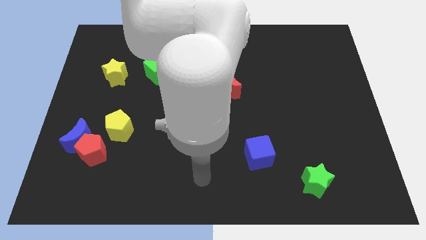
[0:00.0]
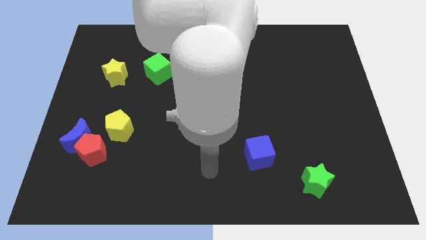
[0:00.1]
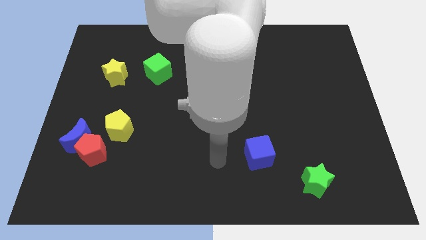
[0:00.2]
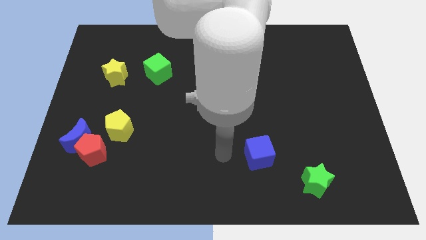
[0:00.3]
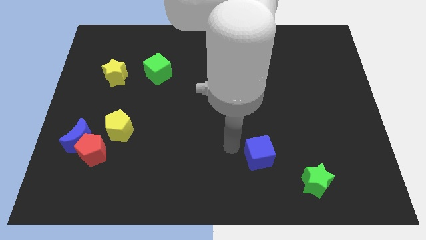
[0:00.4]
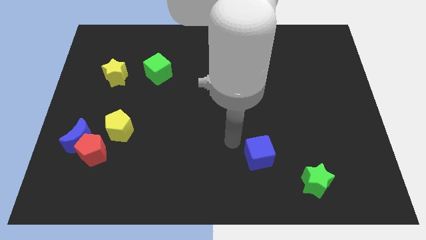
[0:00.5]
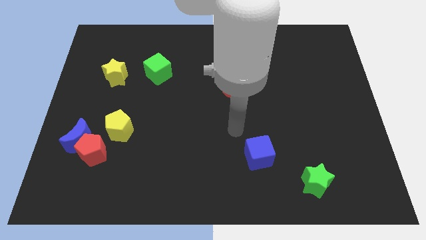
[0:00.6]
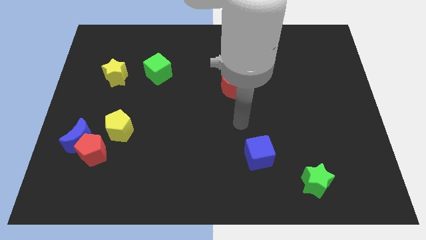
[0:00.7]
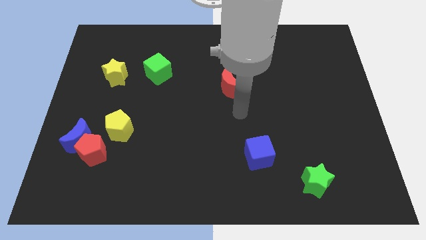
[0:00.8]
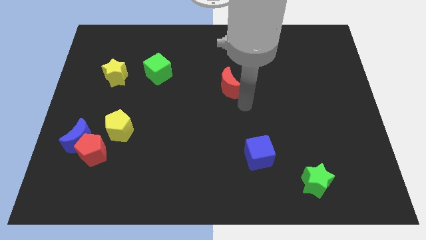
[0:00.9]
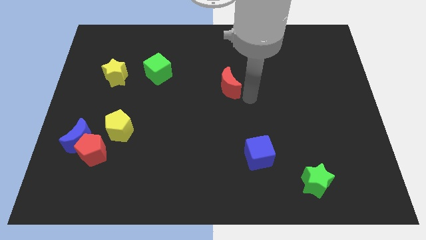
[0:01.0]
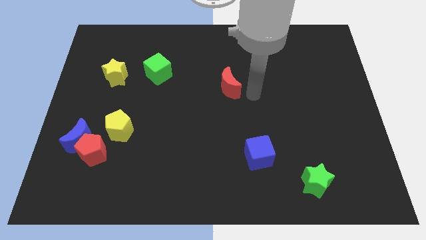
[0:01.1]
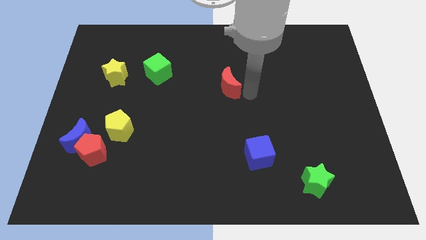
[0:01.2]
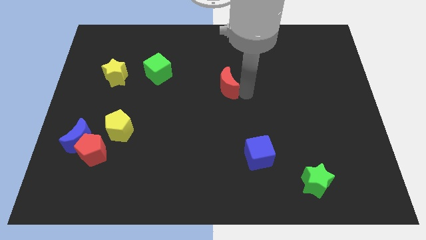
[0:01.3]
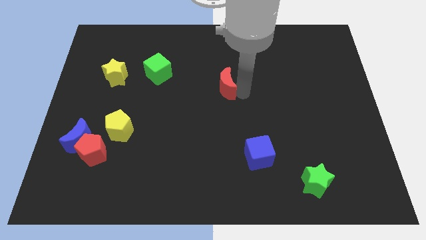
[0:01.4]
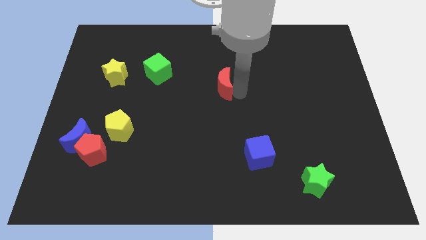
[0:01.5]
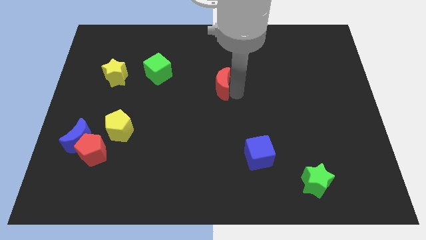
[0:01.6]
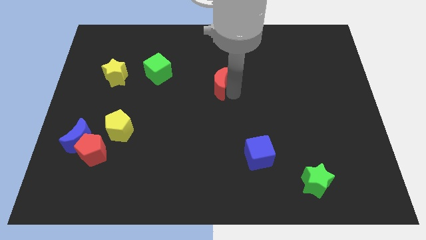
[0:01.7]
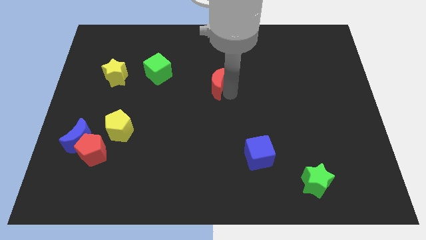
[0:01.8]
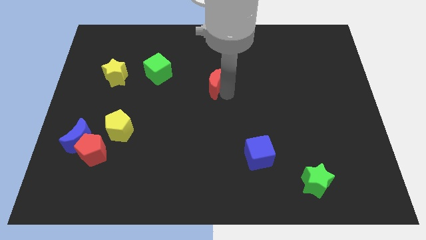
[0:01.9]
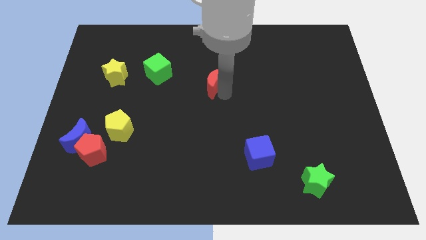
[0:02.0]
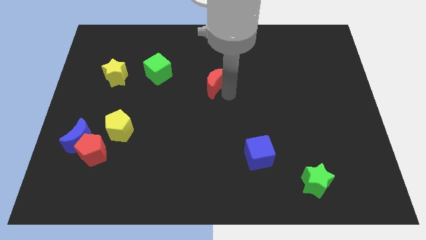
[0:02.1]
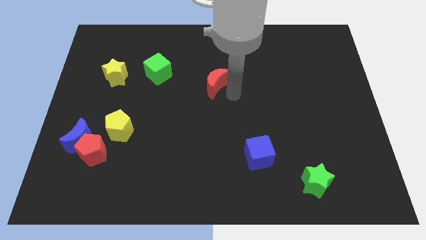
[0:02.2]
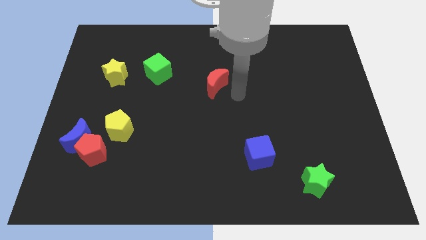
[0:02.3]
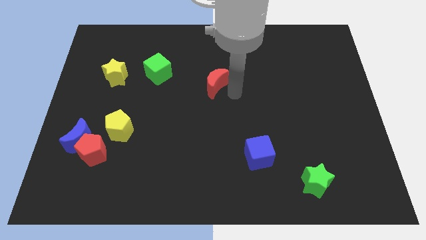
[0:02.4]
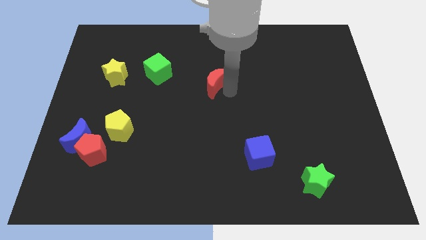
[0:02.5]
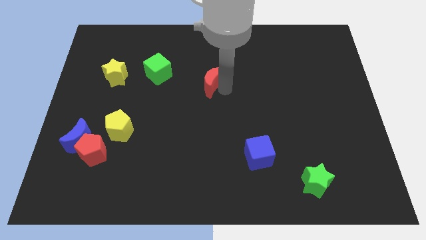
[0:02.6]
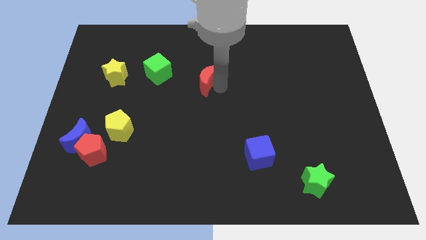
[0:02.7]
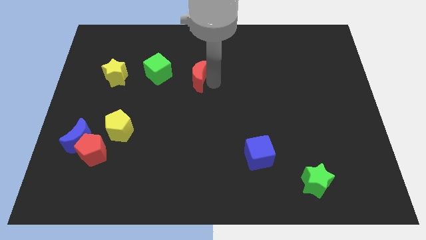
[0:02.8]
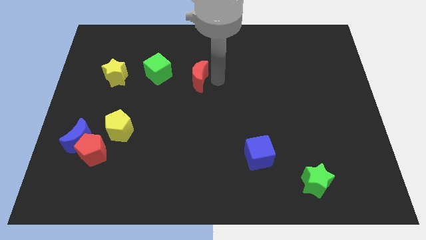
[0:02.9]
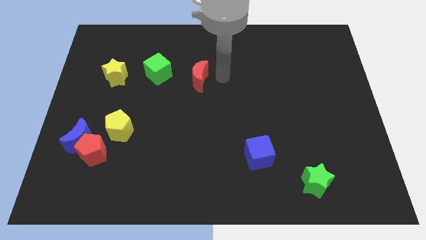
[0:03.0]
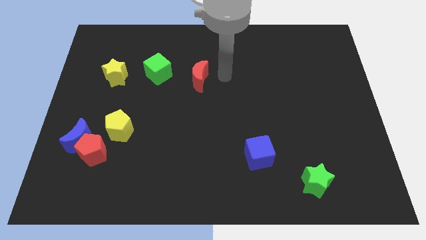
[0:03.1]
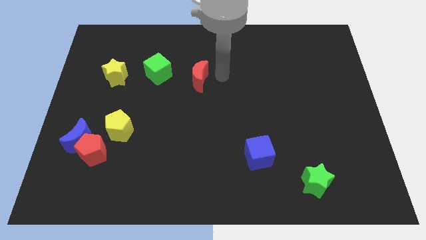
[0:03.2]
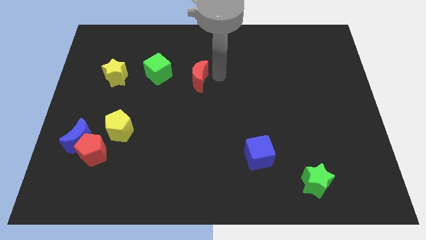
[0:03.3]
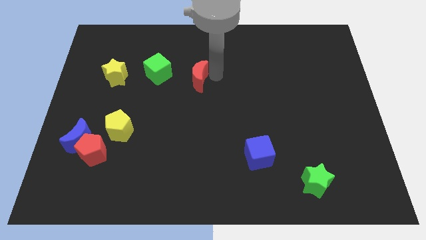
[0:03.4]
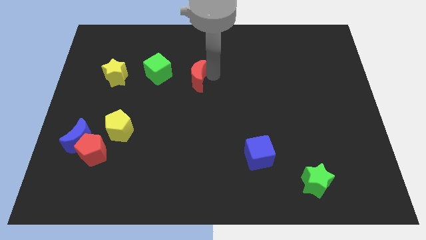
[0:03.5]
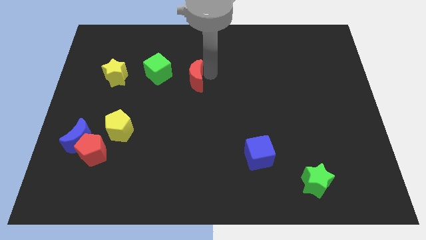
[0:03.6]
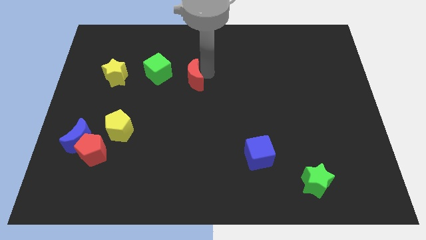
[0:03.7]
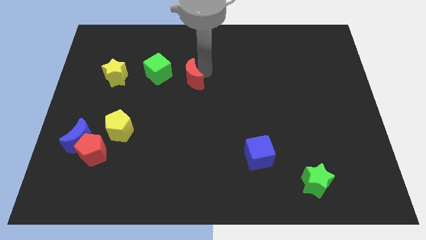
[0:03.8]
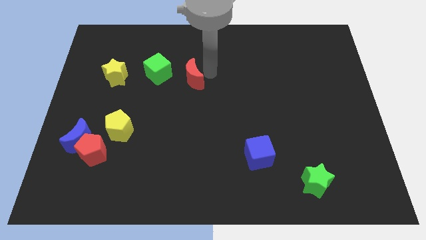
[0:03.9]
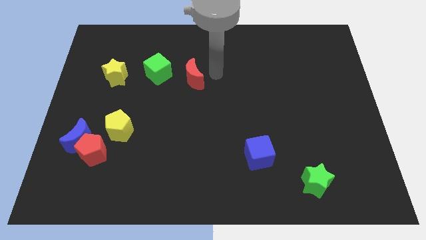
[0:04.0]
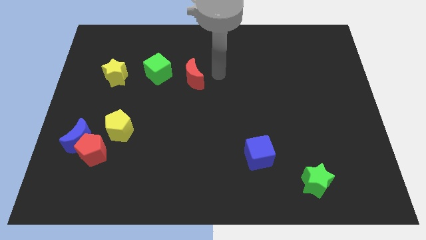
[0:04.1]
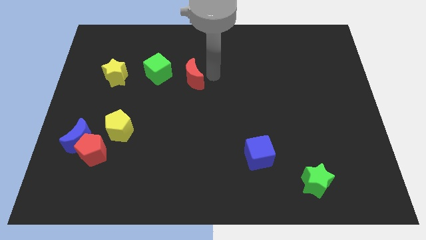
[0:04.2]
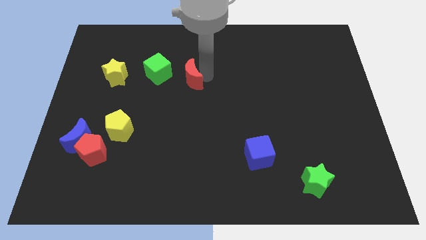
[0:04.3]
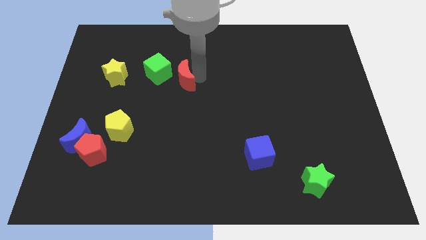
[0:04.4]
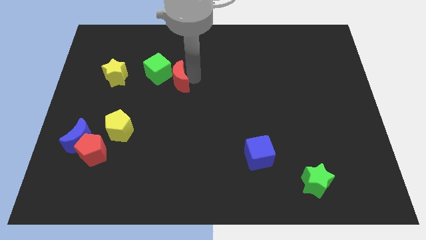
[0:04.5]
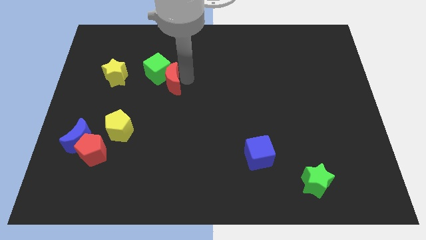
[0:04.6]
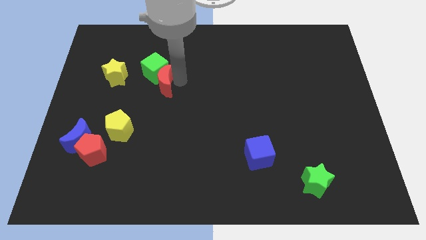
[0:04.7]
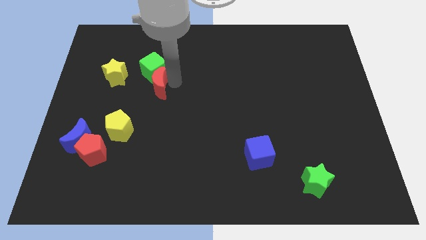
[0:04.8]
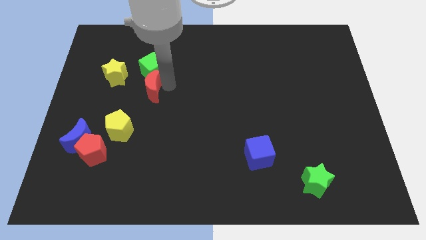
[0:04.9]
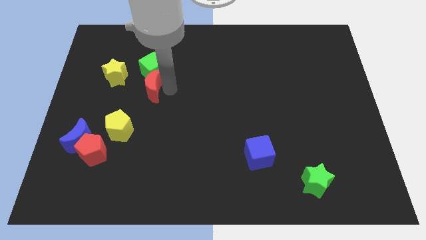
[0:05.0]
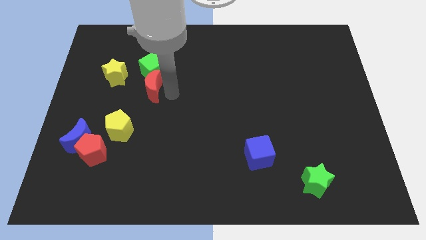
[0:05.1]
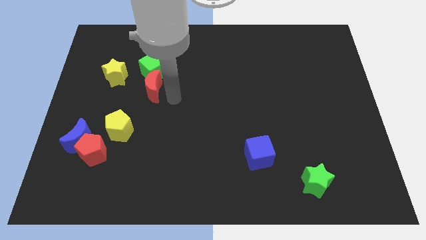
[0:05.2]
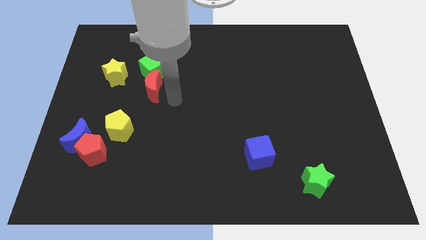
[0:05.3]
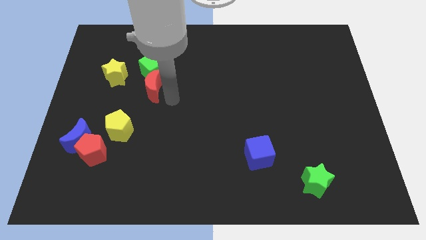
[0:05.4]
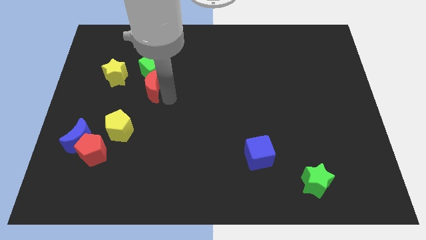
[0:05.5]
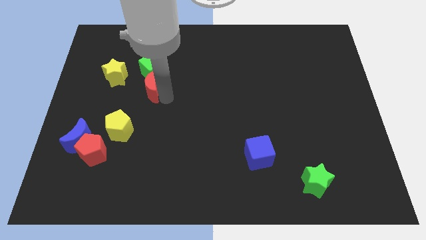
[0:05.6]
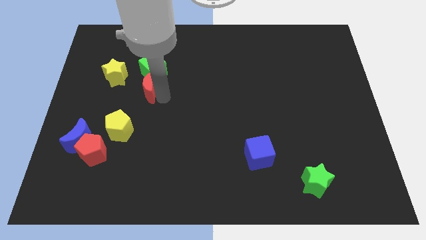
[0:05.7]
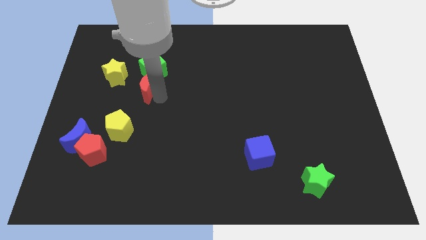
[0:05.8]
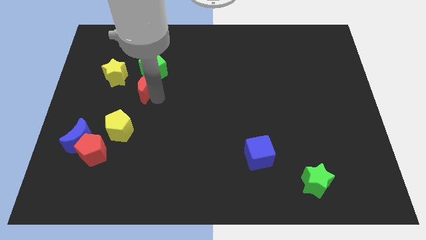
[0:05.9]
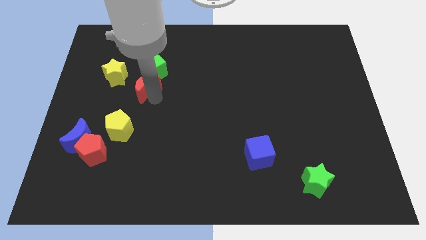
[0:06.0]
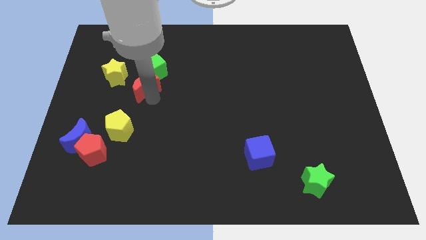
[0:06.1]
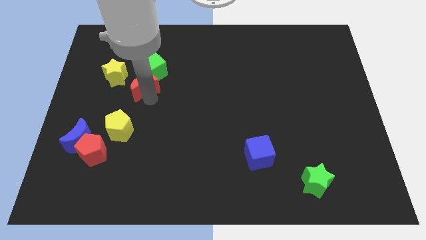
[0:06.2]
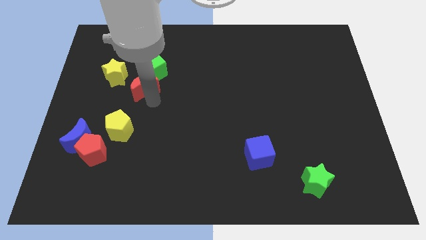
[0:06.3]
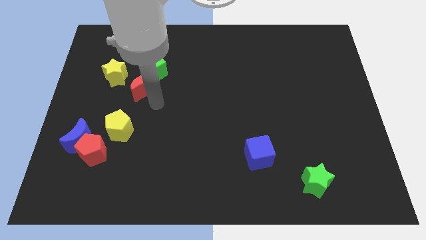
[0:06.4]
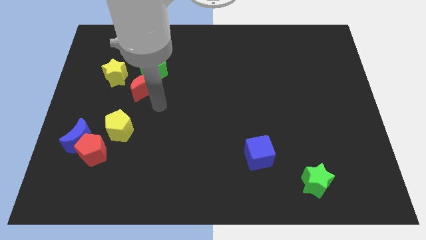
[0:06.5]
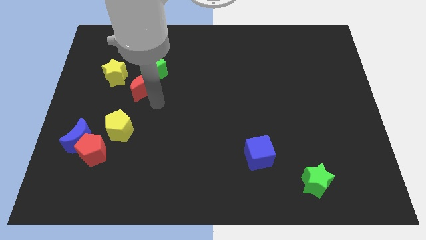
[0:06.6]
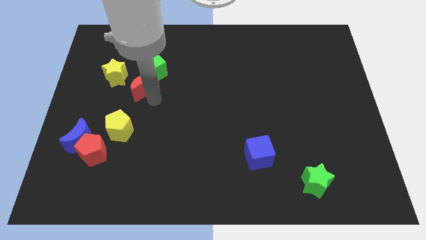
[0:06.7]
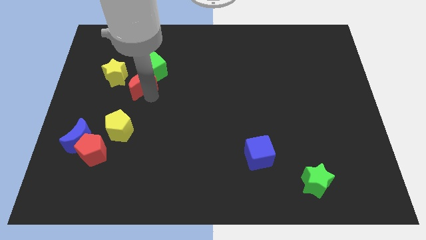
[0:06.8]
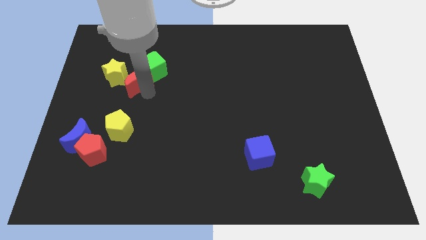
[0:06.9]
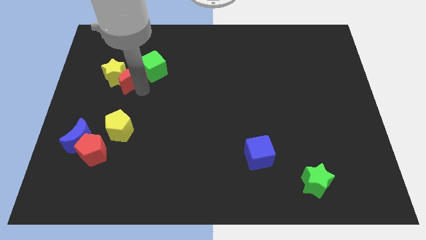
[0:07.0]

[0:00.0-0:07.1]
push the red moon left of the green cube

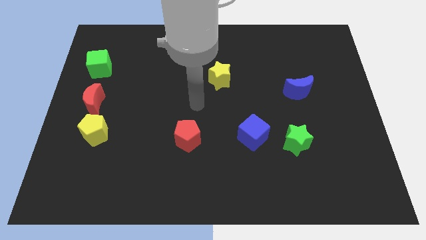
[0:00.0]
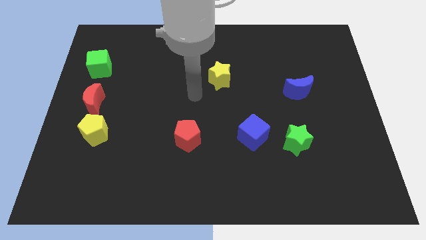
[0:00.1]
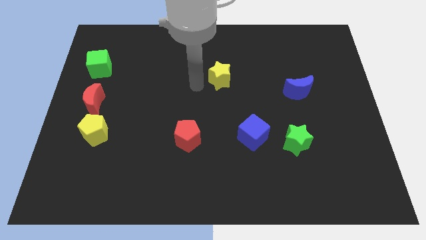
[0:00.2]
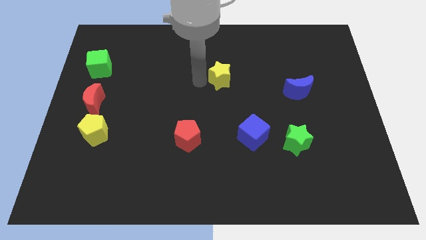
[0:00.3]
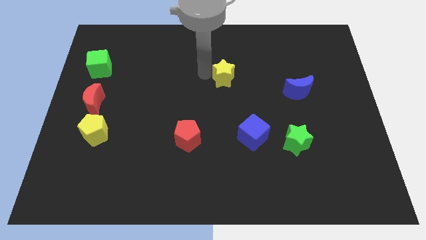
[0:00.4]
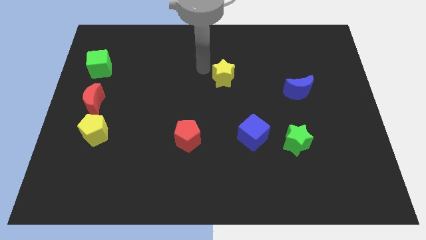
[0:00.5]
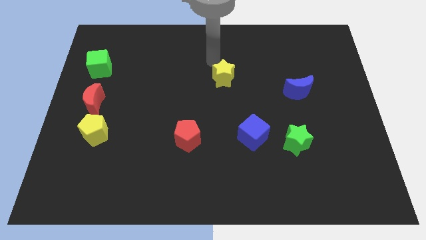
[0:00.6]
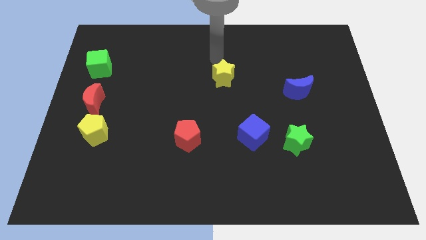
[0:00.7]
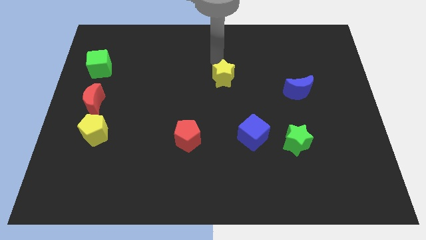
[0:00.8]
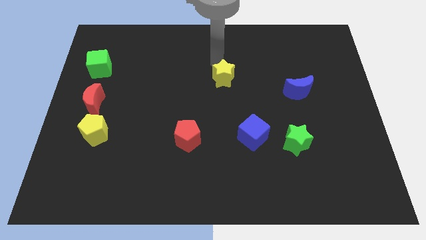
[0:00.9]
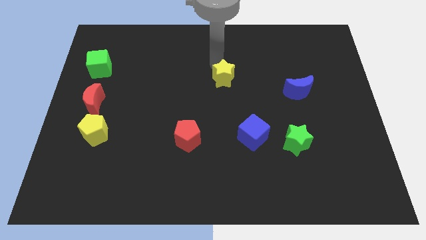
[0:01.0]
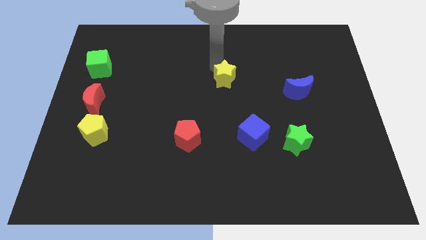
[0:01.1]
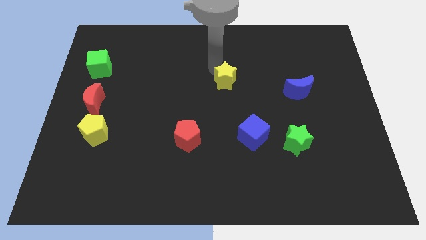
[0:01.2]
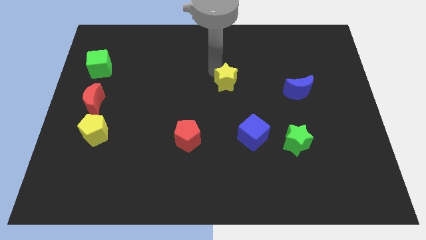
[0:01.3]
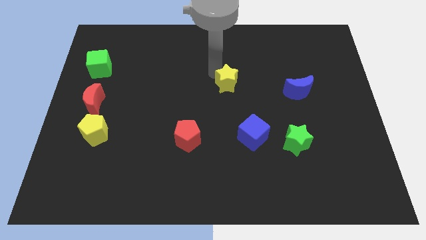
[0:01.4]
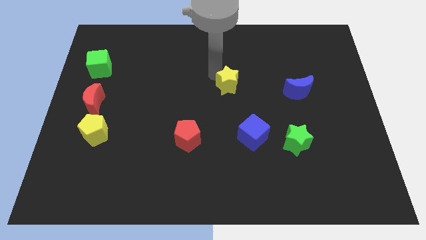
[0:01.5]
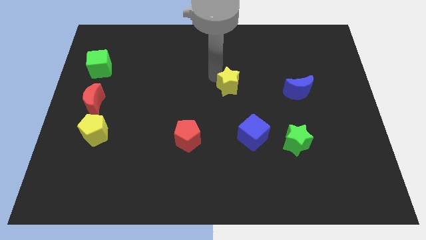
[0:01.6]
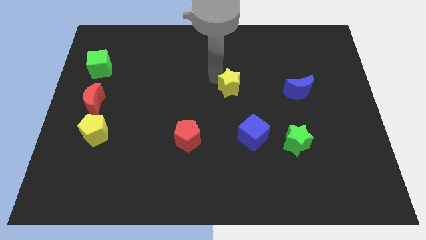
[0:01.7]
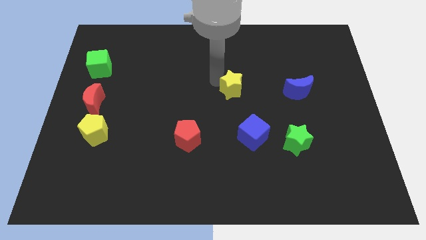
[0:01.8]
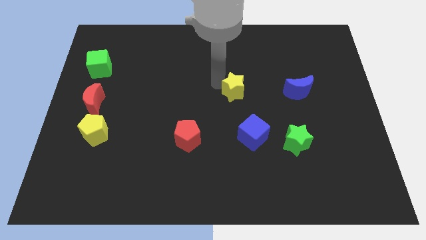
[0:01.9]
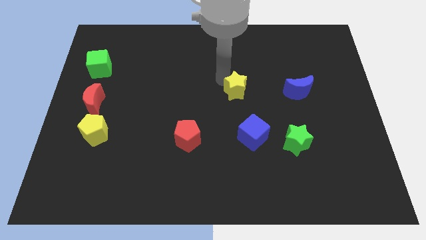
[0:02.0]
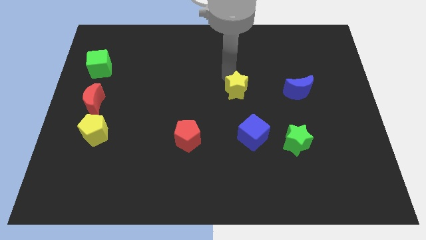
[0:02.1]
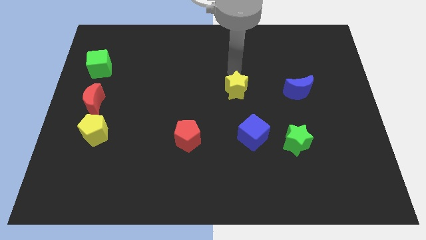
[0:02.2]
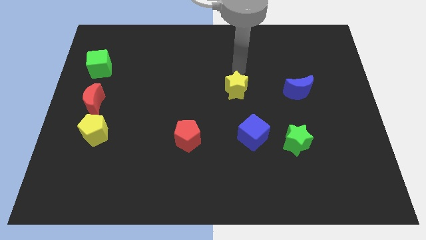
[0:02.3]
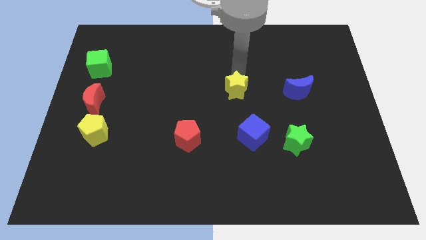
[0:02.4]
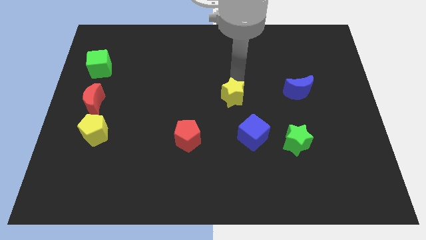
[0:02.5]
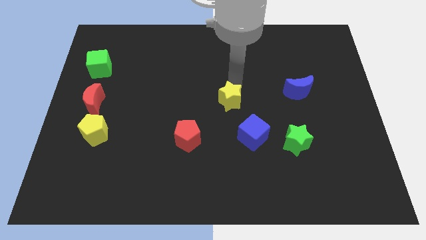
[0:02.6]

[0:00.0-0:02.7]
move the yellow star to the top left side of the blue cube
